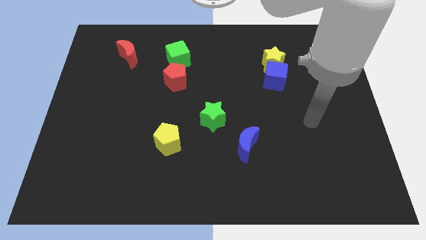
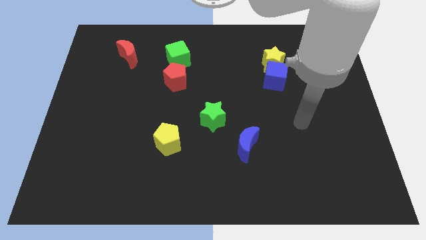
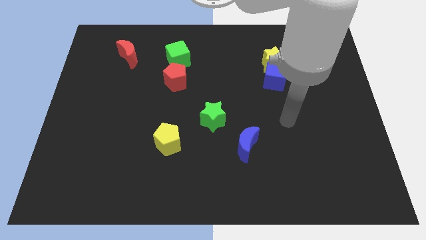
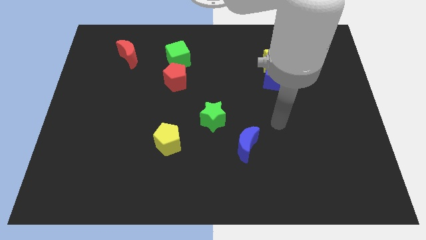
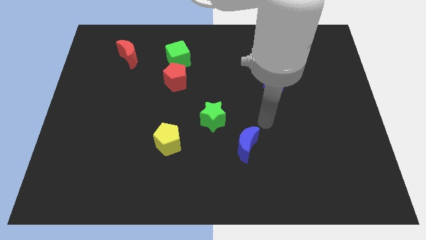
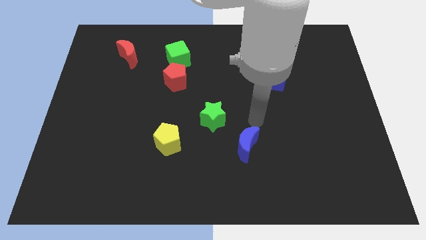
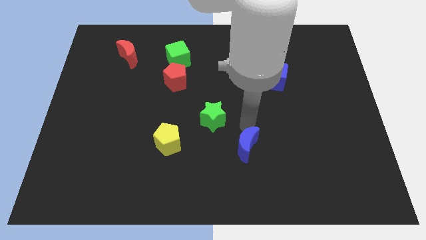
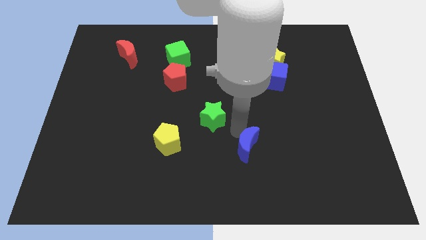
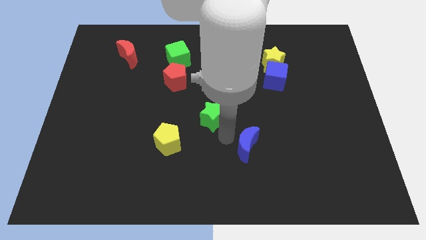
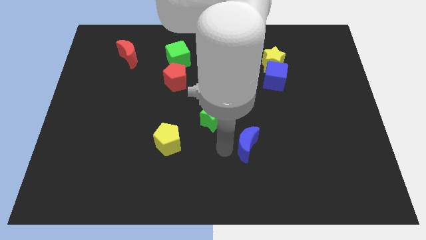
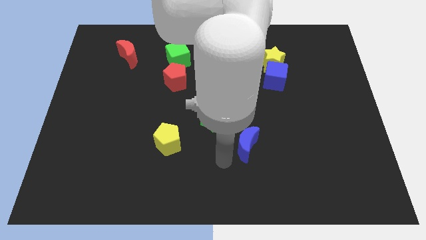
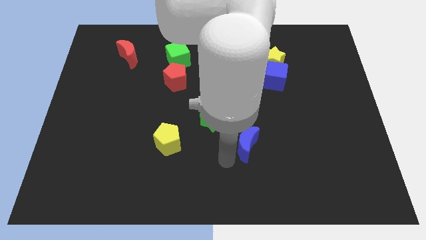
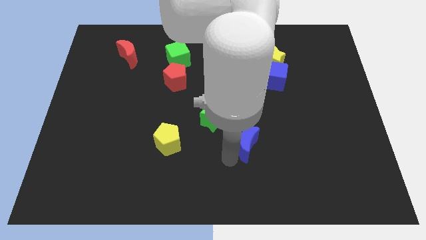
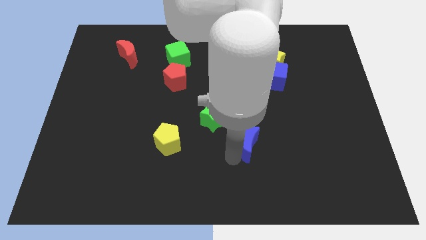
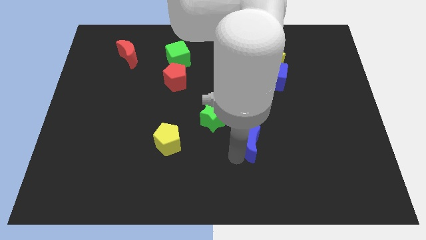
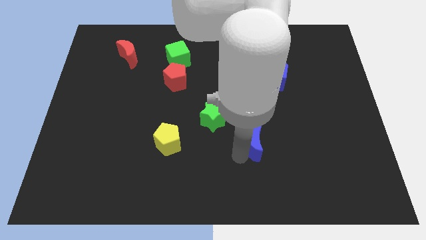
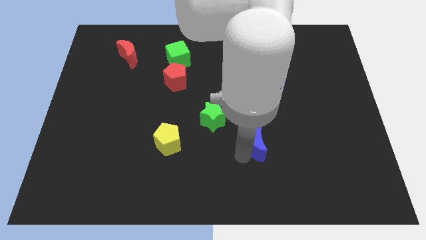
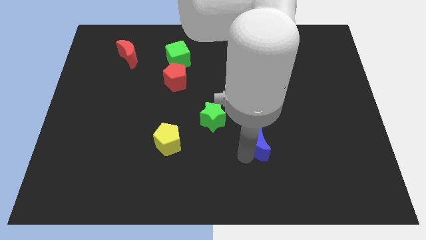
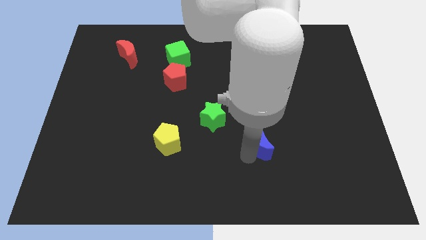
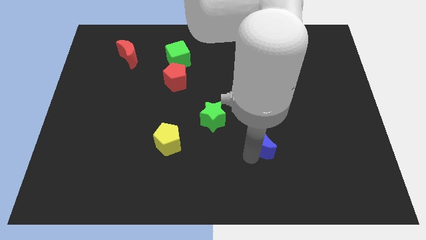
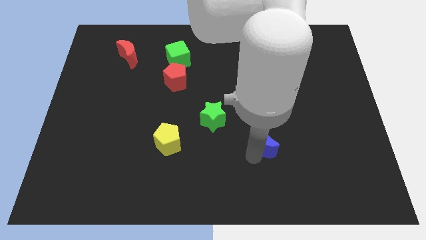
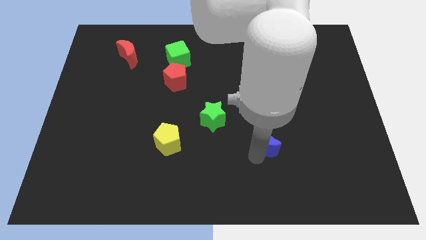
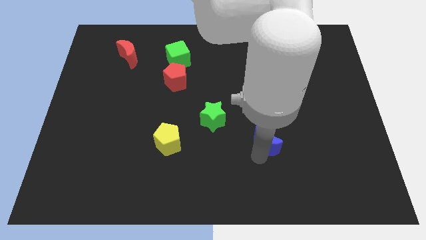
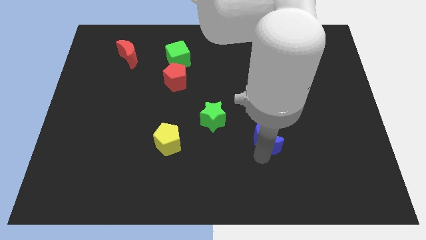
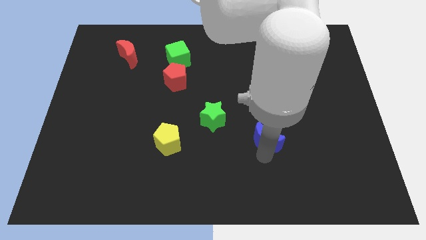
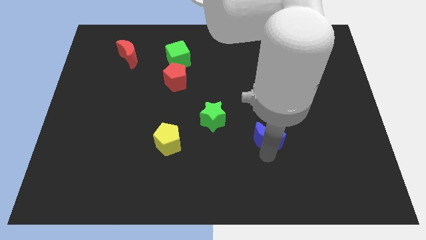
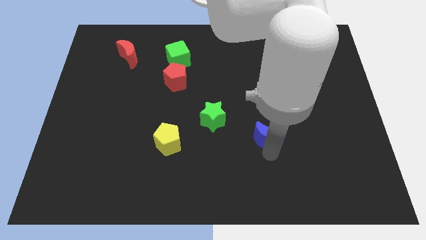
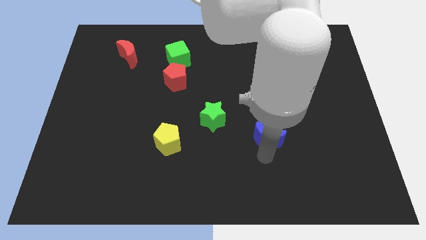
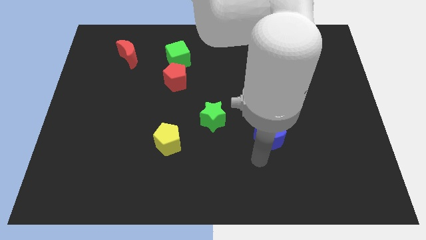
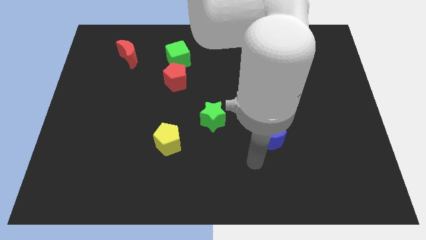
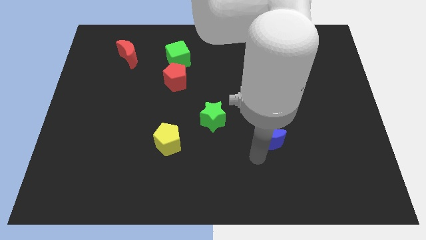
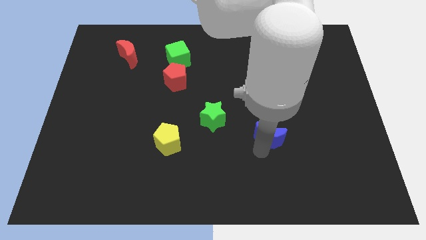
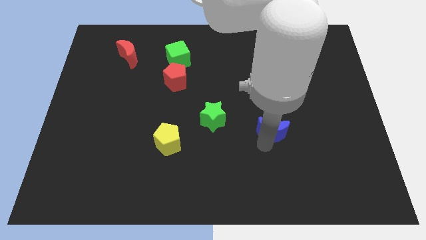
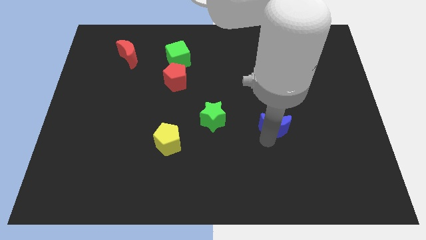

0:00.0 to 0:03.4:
slide the blue moon a little upwards and then right

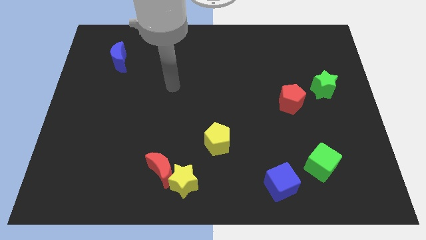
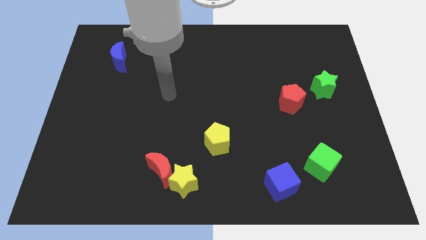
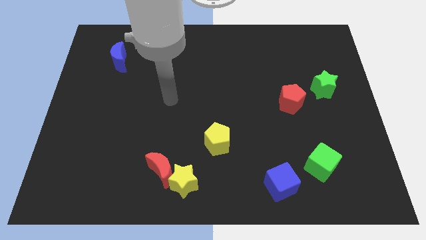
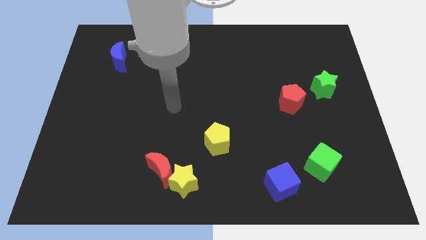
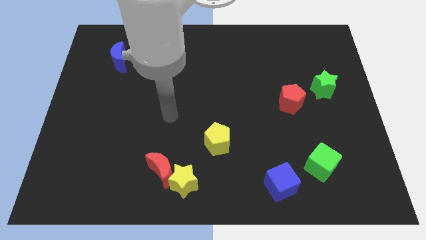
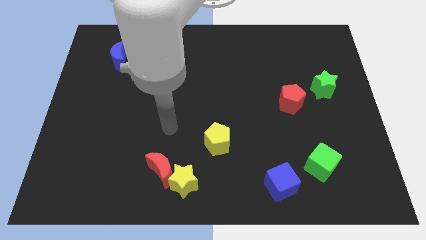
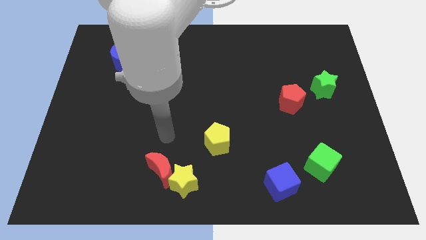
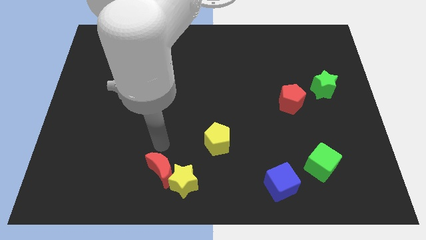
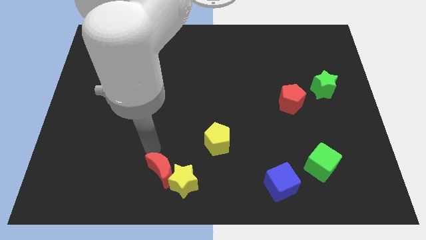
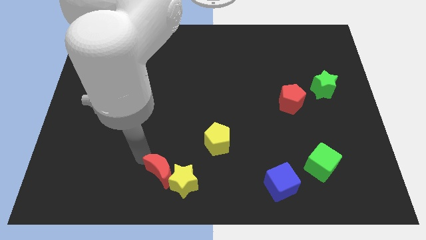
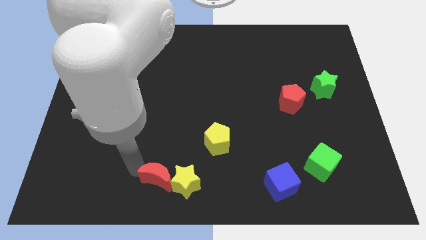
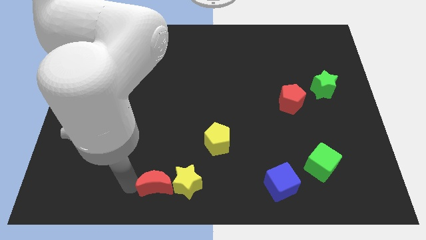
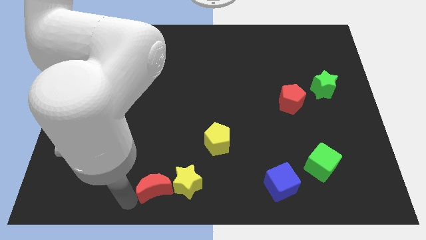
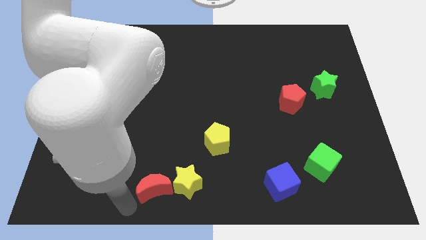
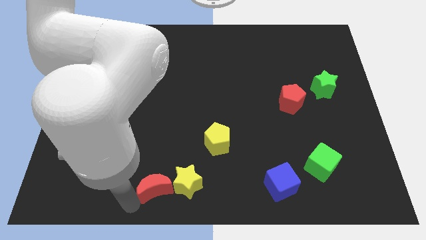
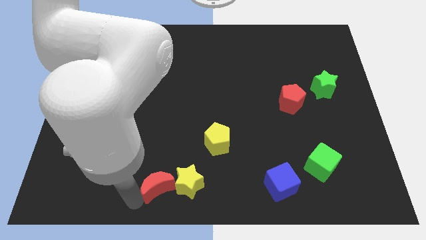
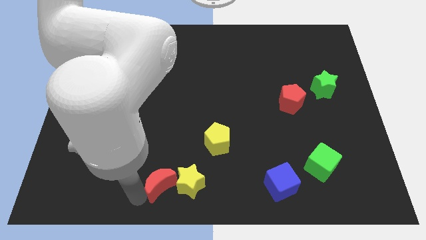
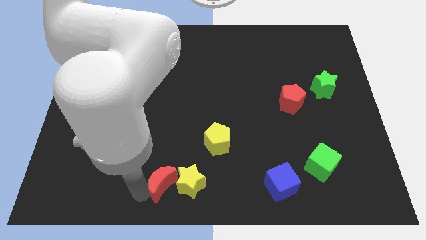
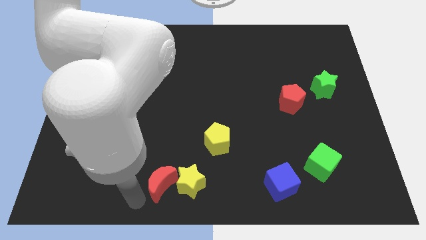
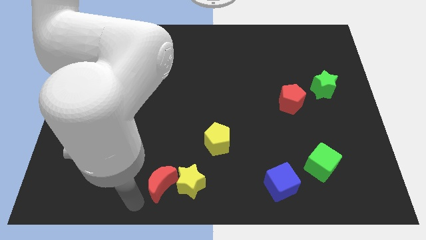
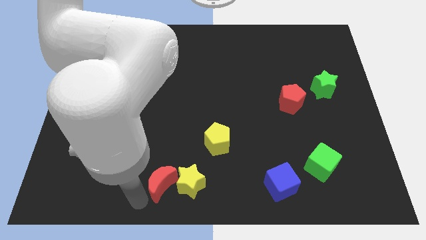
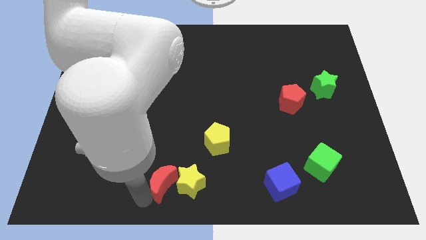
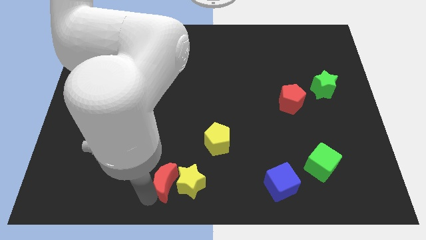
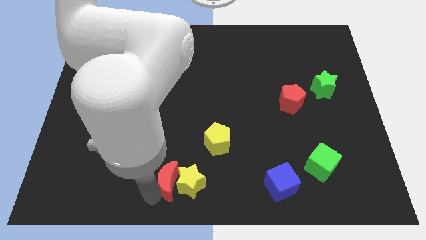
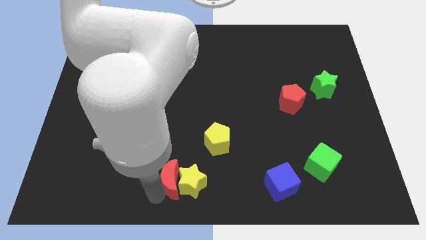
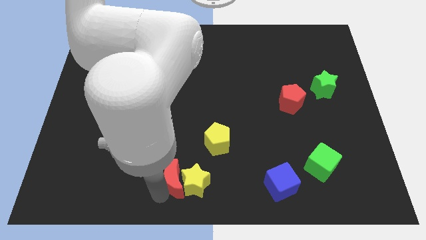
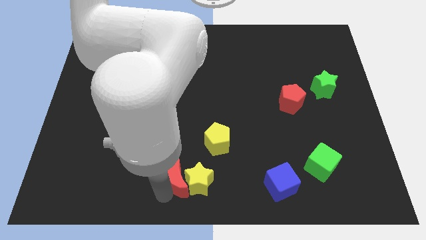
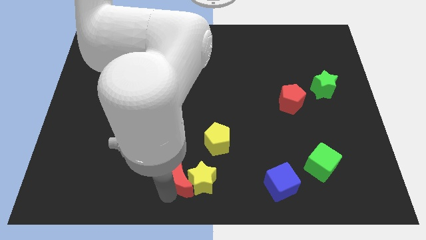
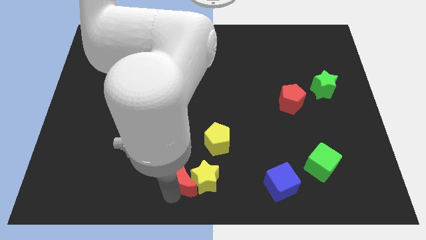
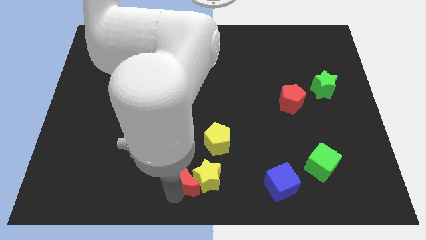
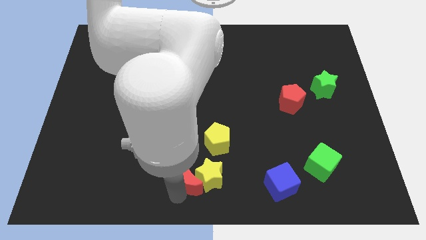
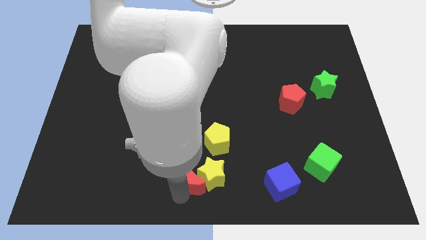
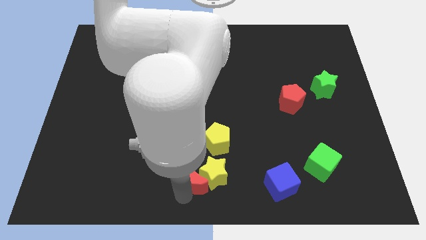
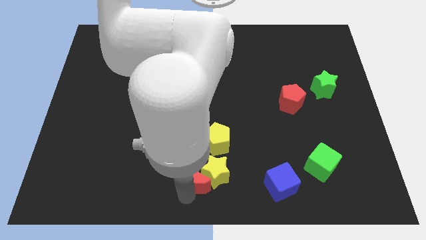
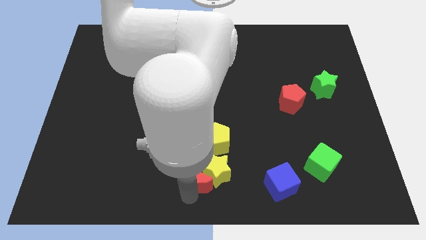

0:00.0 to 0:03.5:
push the red moon a little bit to the right

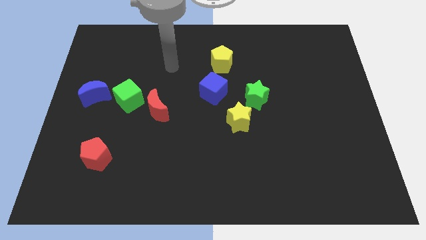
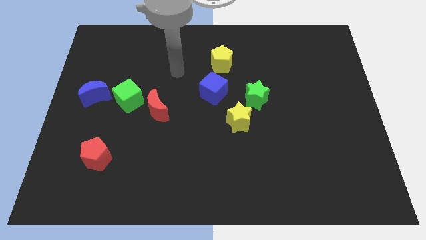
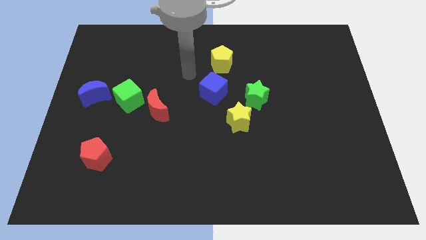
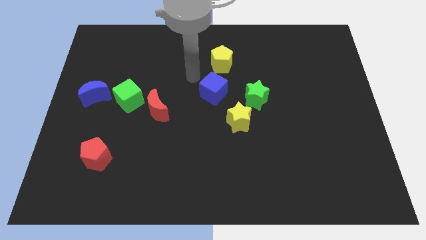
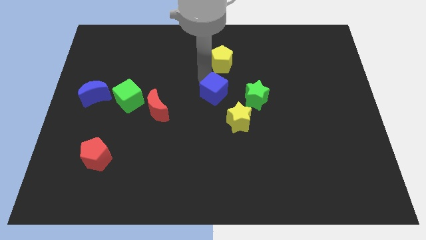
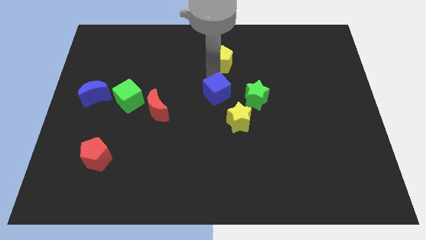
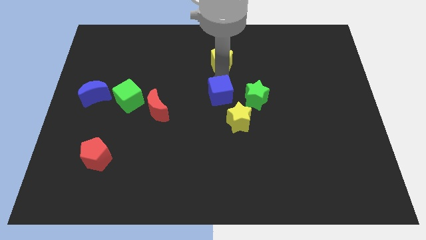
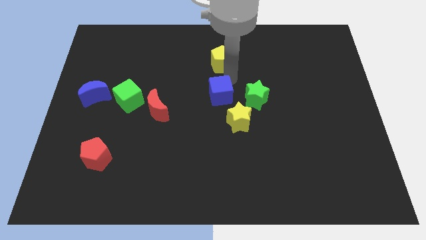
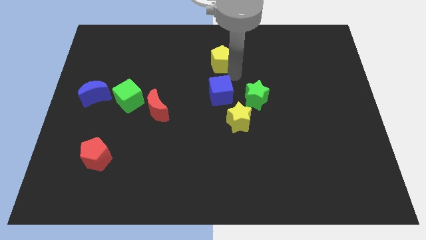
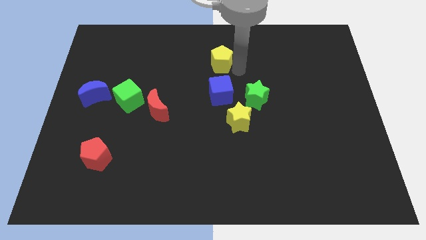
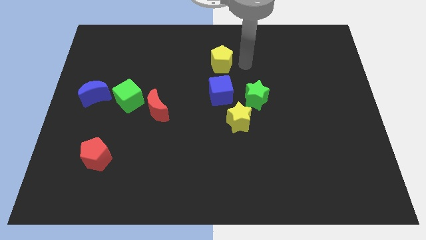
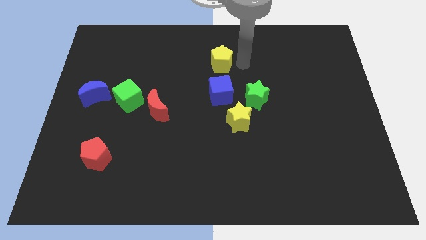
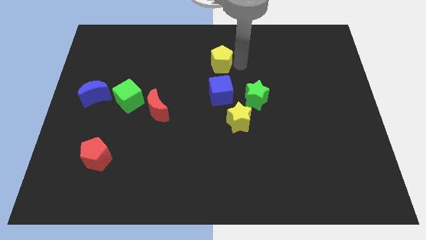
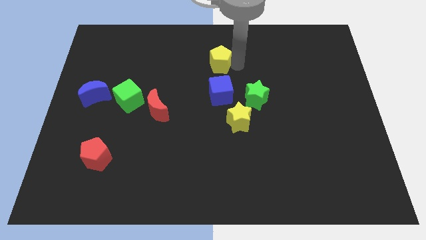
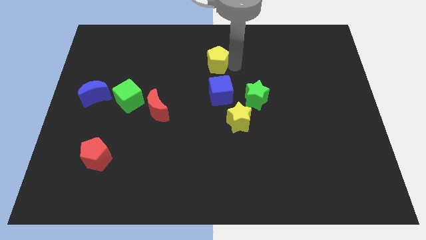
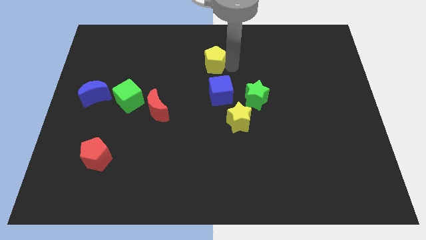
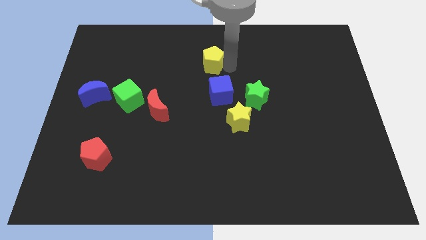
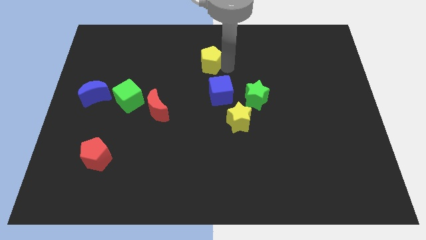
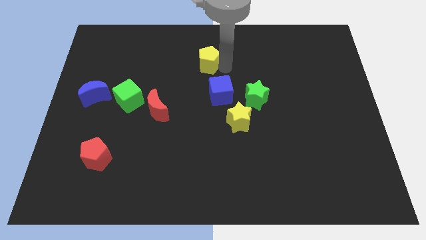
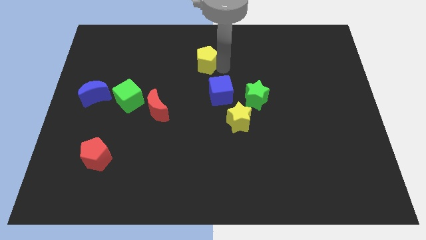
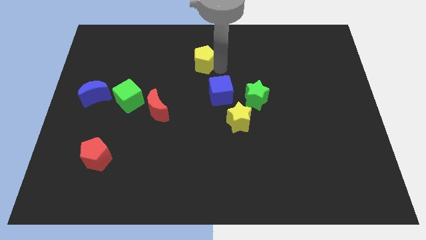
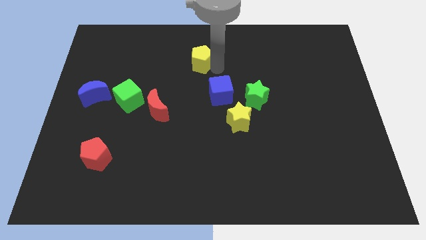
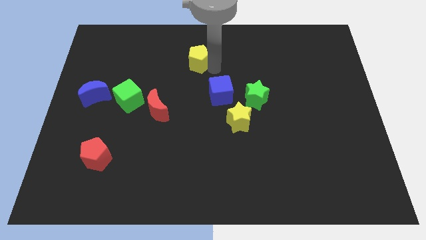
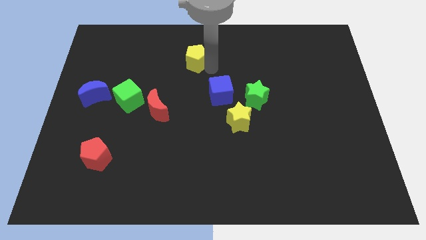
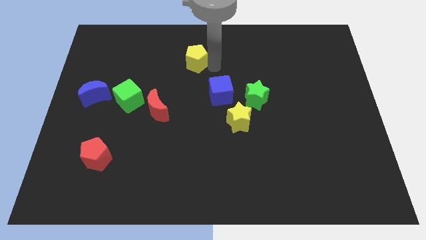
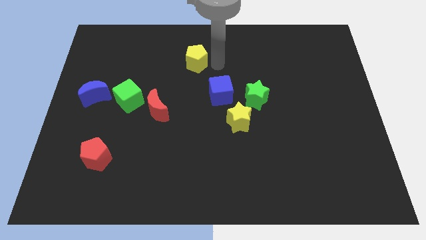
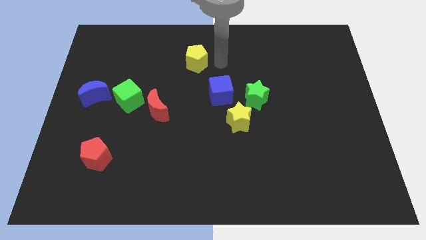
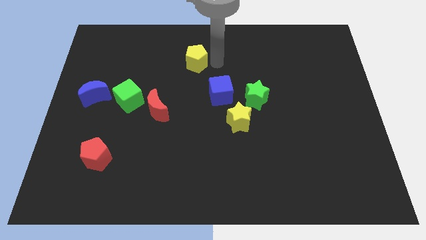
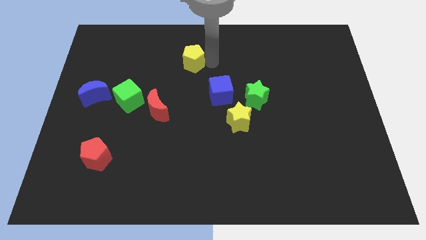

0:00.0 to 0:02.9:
slightly slide the yellow pentagon to the left
